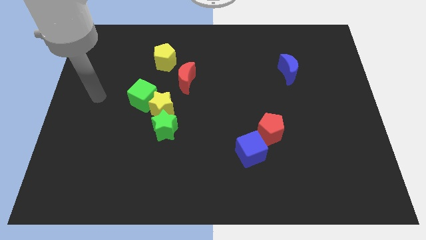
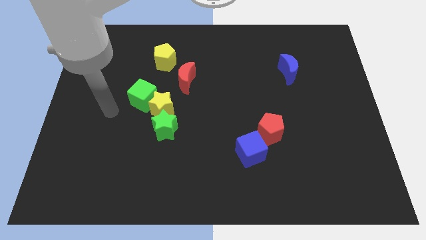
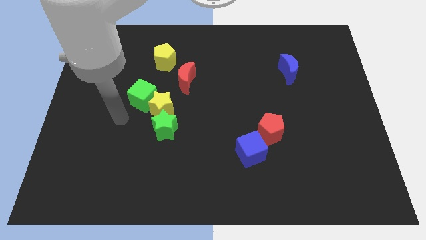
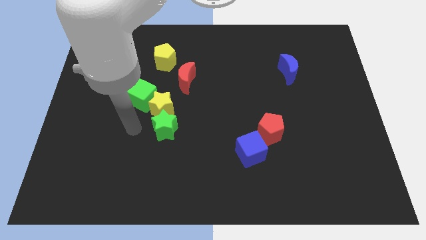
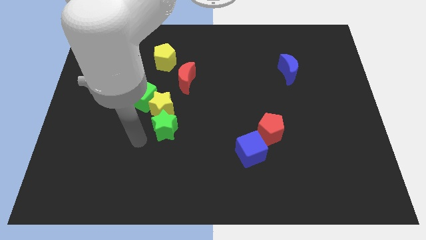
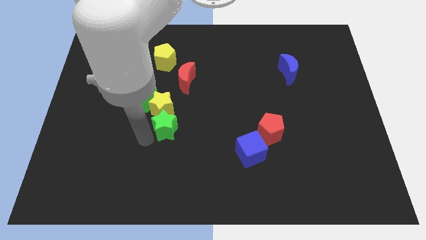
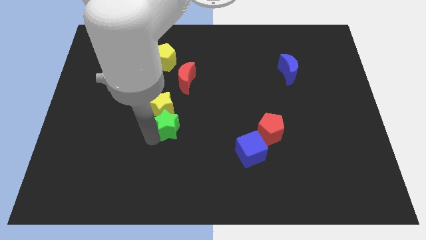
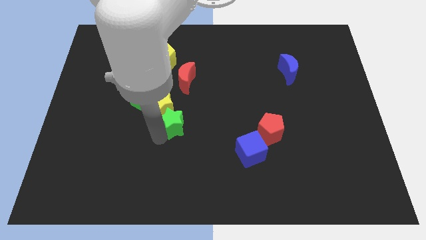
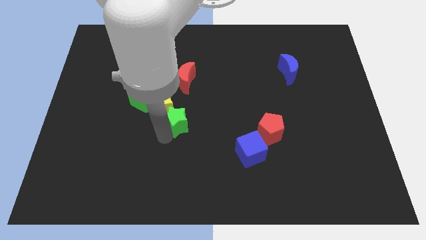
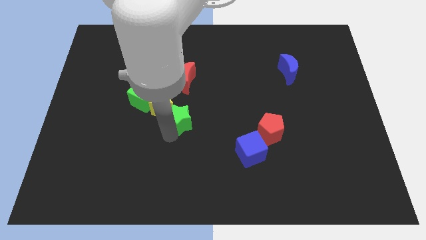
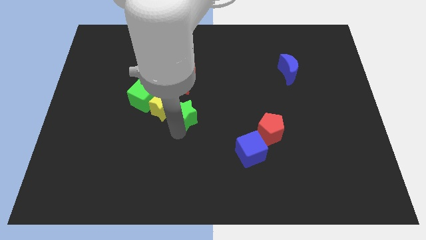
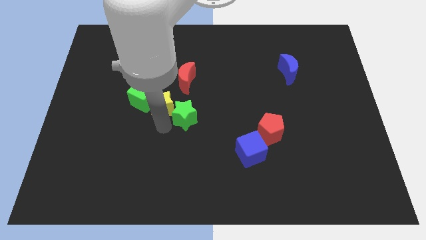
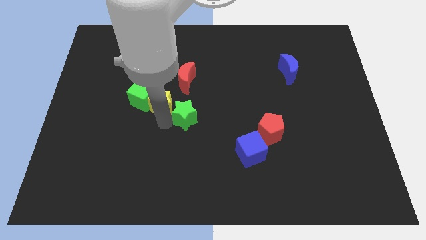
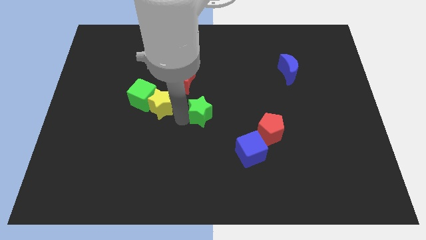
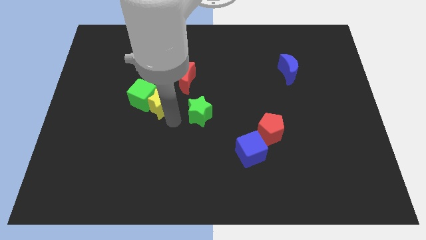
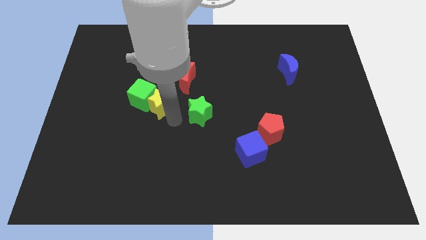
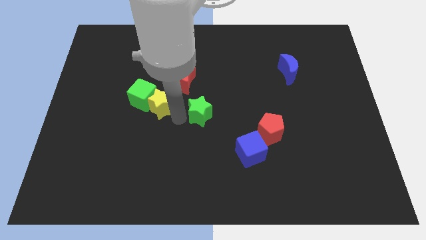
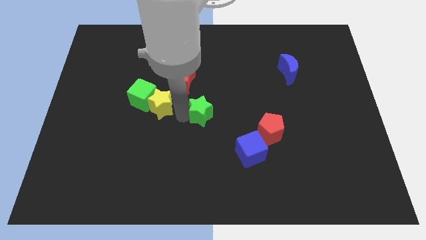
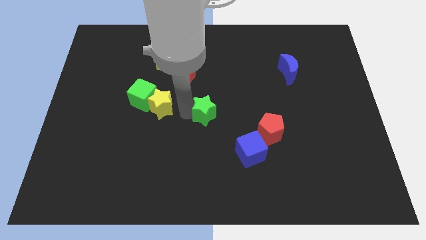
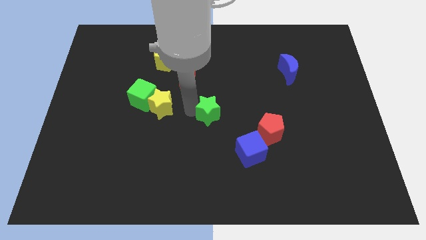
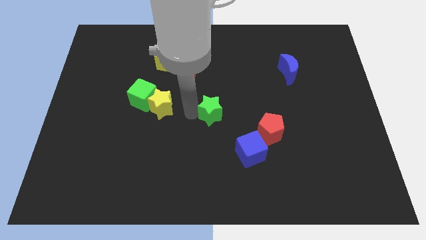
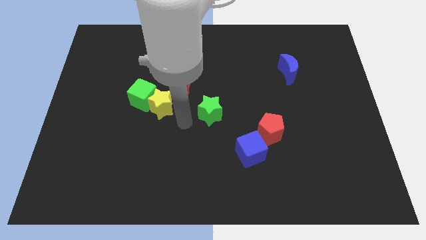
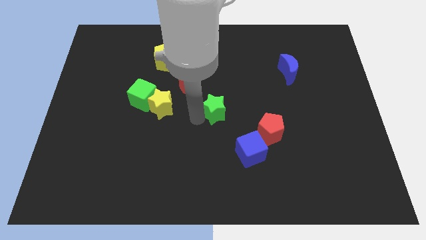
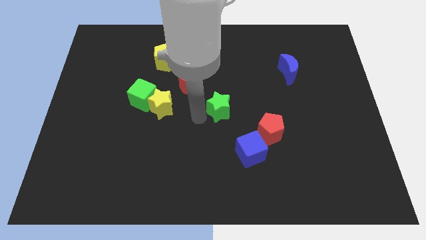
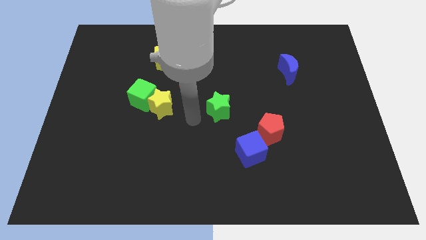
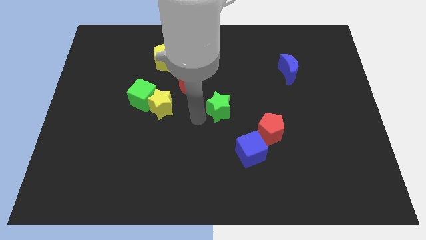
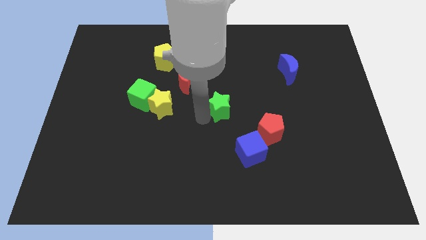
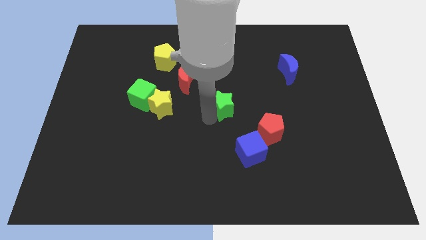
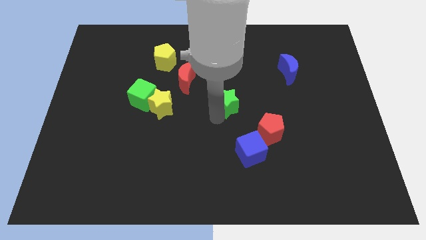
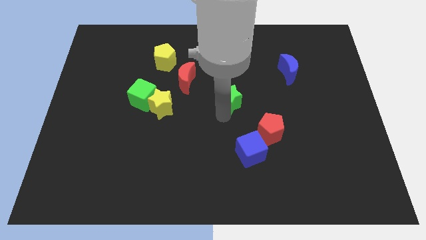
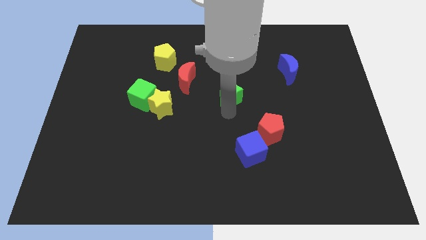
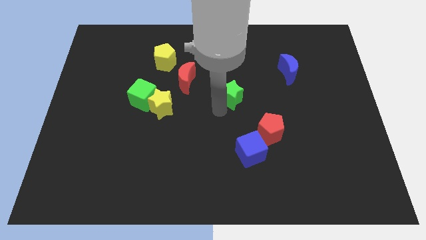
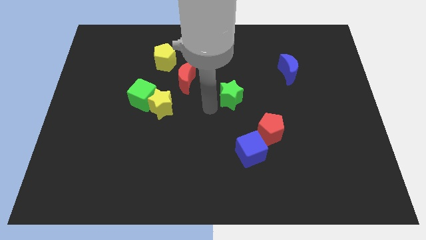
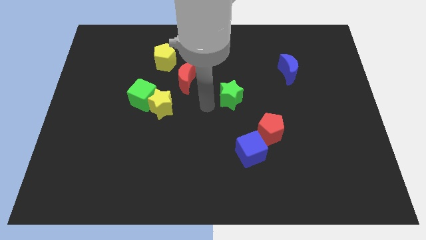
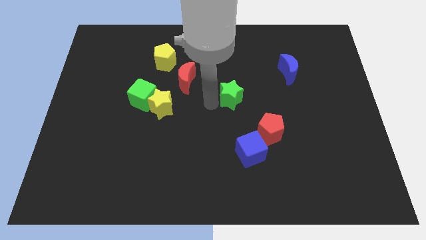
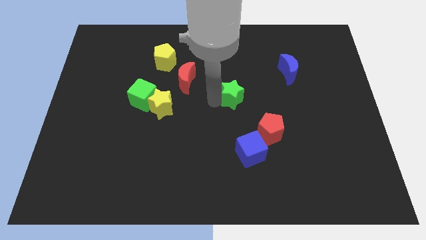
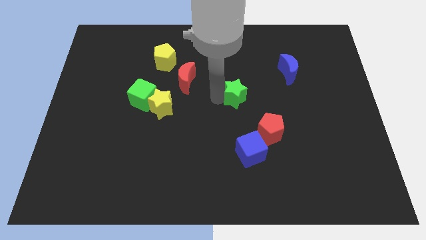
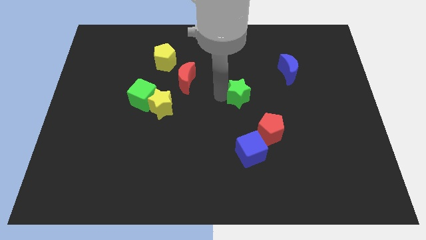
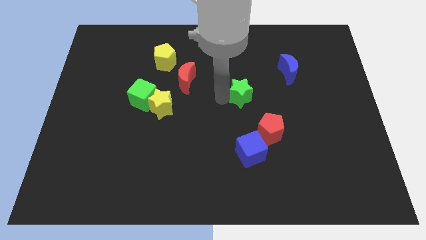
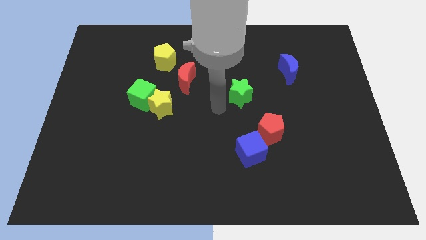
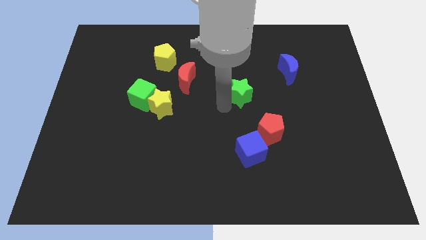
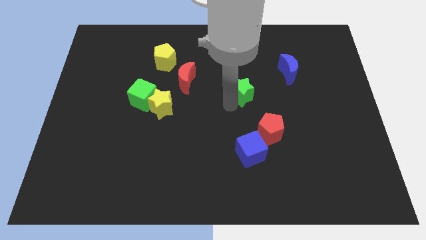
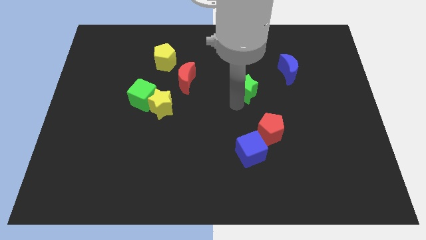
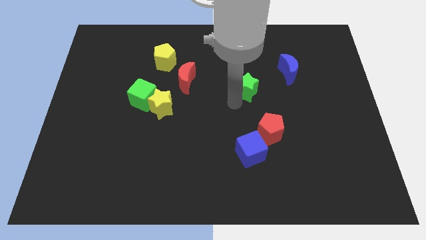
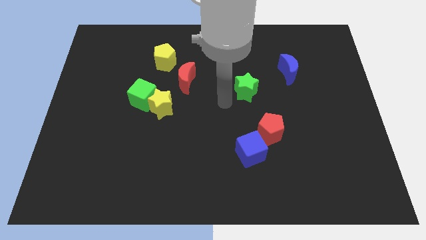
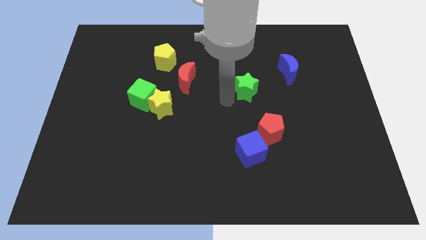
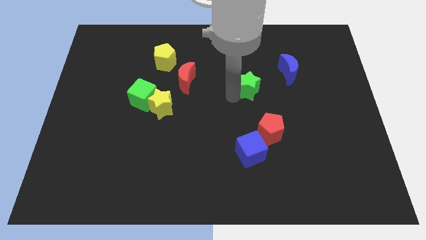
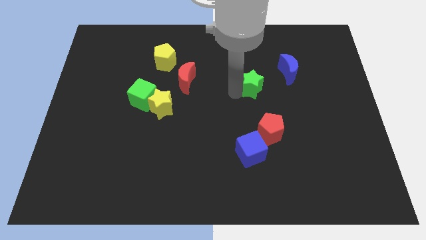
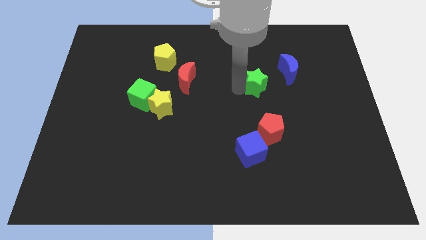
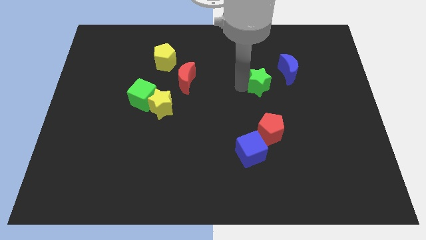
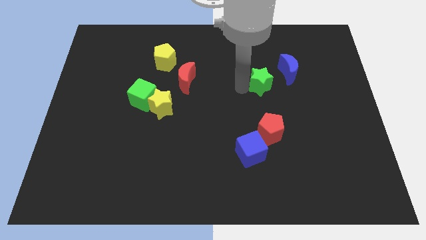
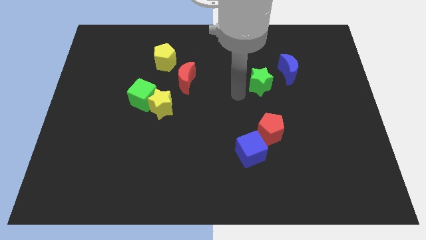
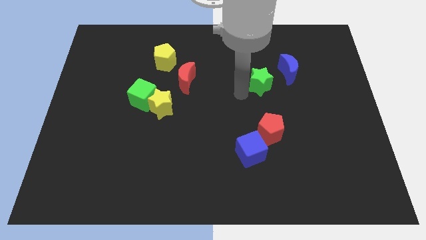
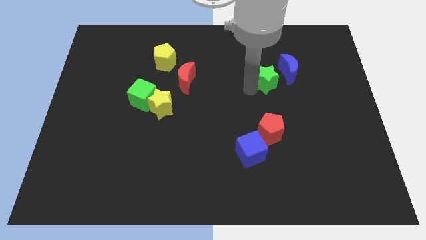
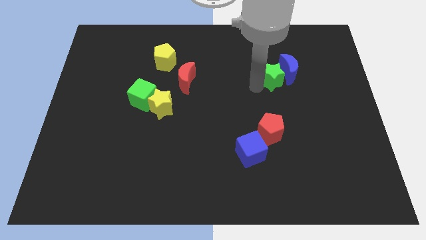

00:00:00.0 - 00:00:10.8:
push the green star to the blue moon

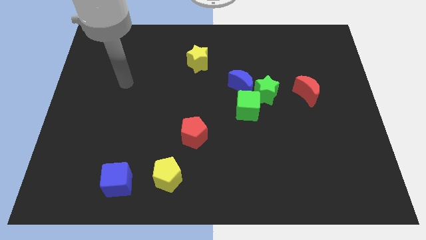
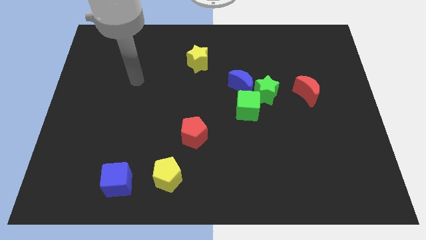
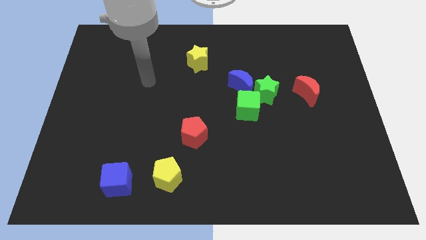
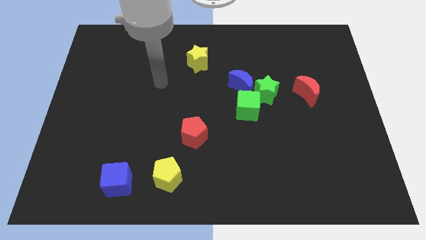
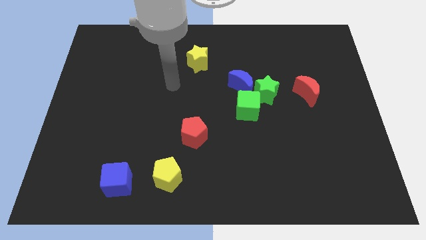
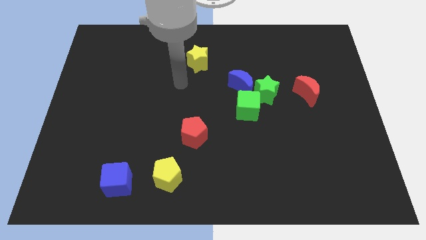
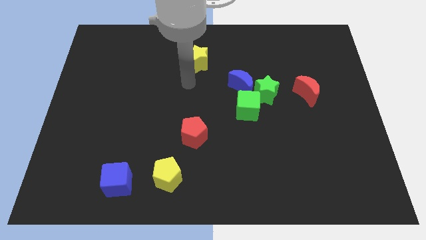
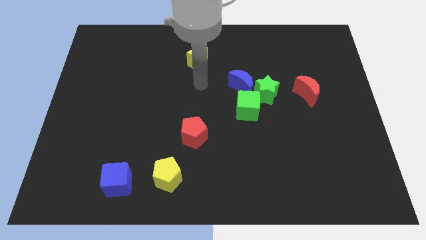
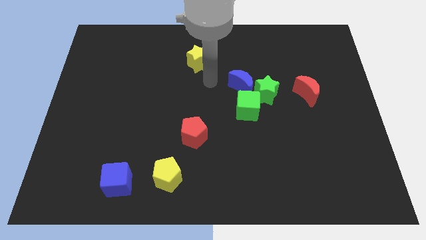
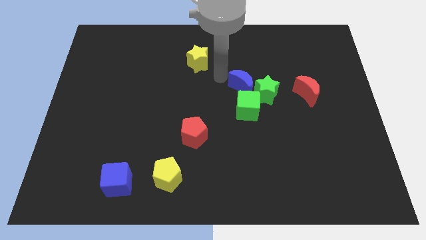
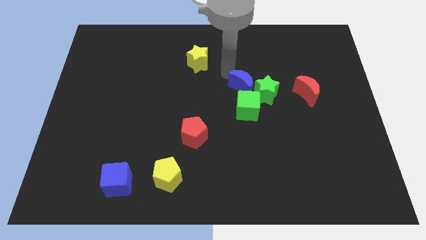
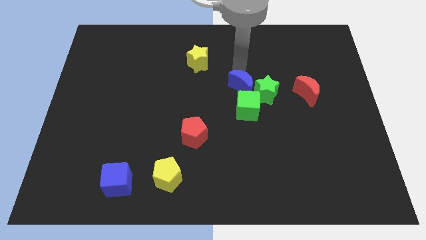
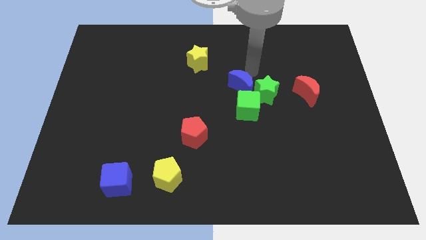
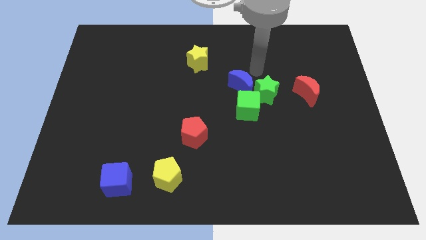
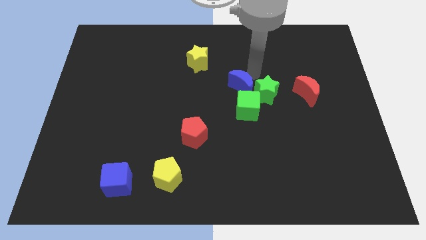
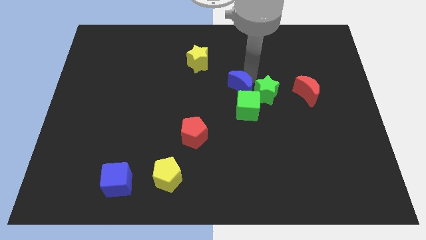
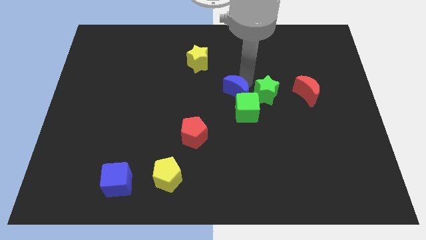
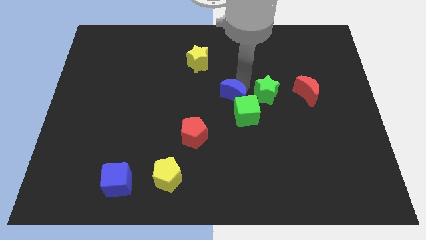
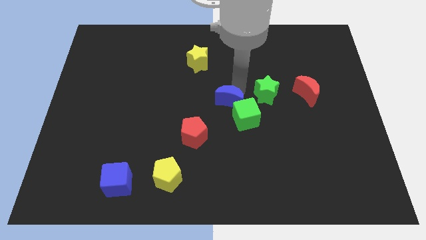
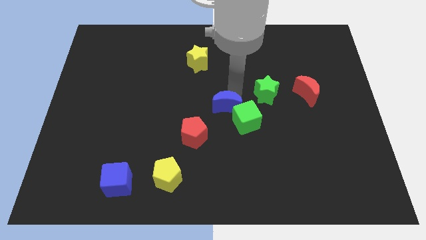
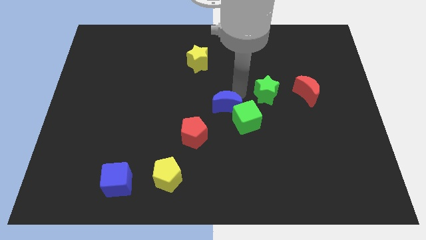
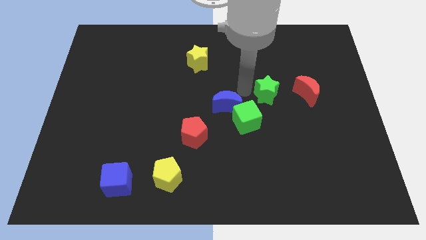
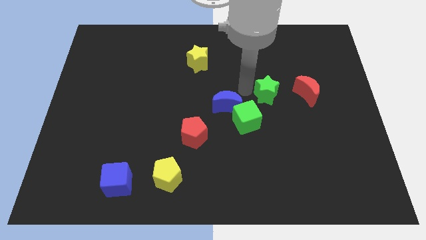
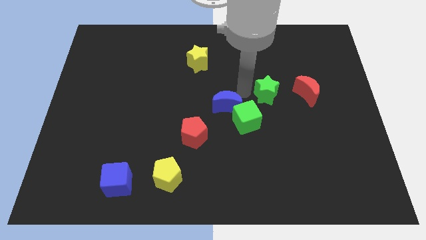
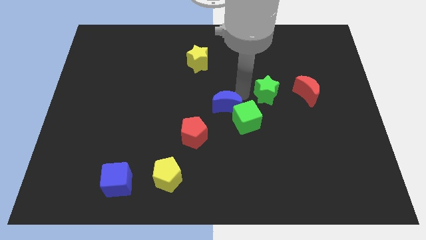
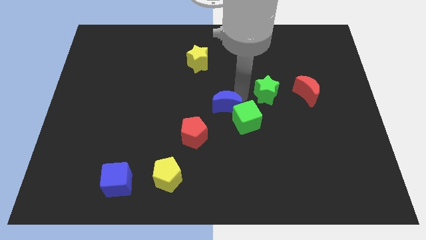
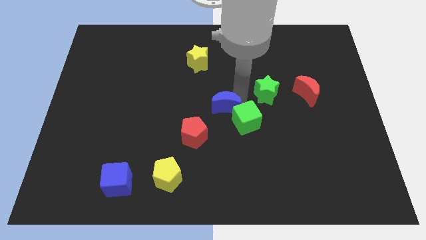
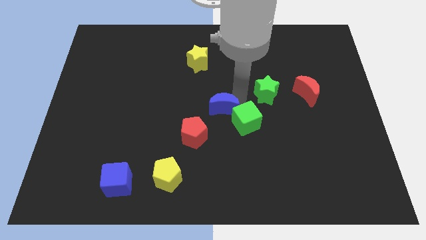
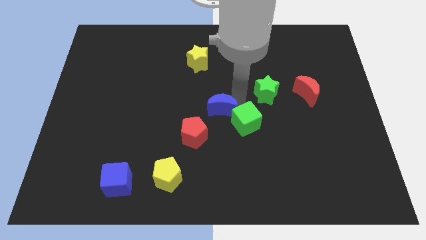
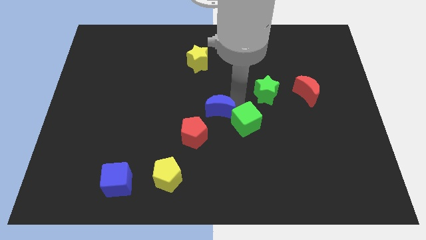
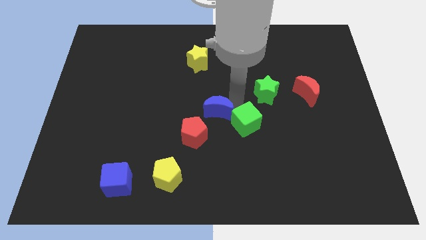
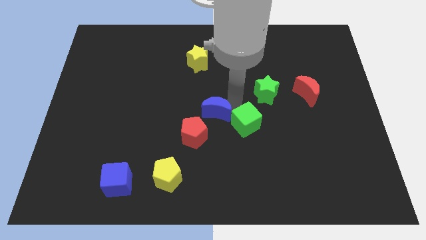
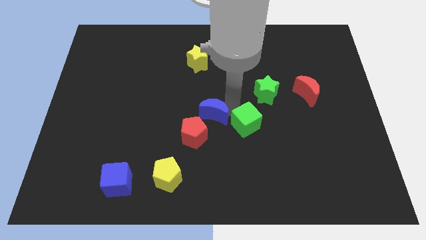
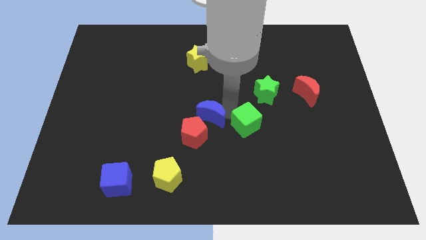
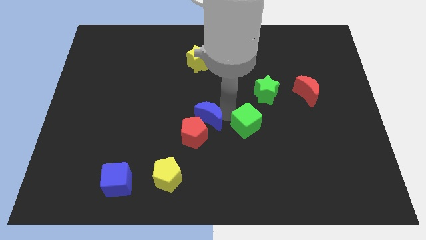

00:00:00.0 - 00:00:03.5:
put the blue moon towards the red pentagon
